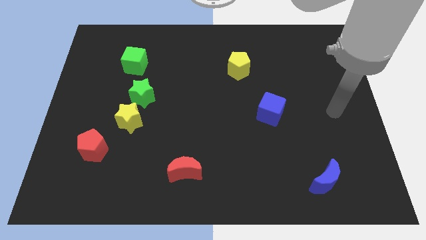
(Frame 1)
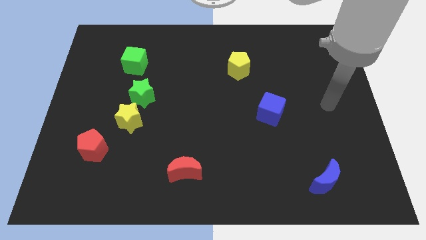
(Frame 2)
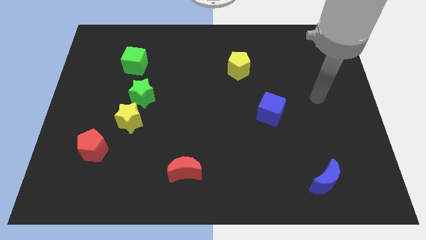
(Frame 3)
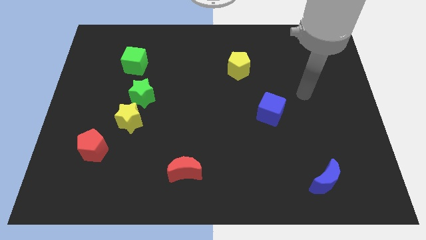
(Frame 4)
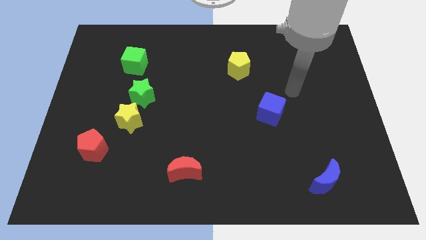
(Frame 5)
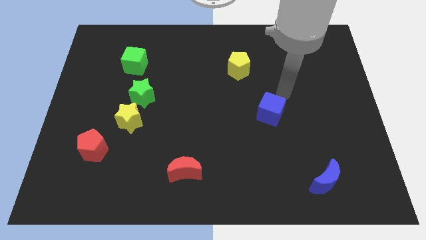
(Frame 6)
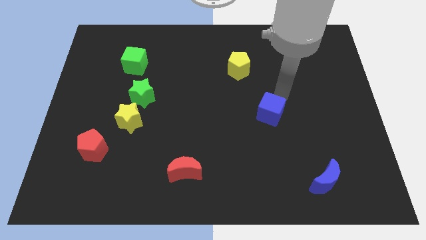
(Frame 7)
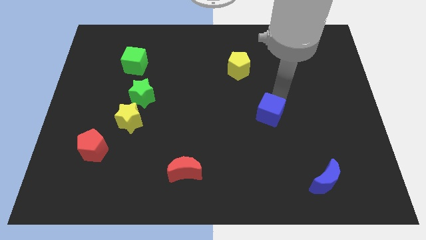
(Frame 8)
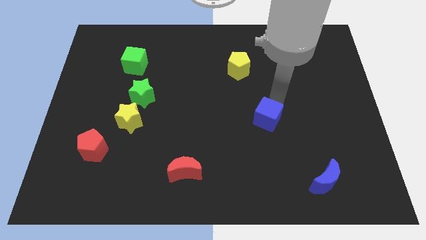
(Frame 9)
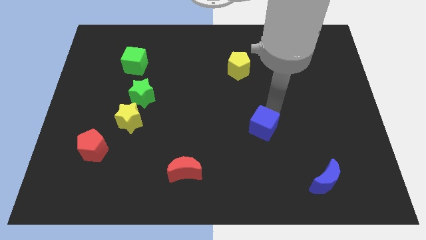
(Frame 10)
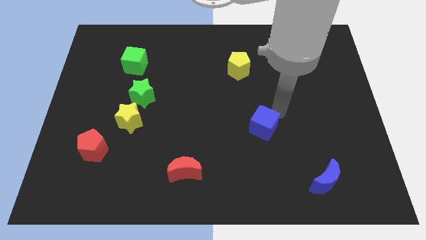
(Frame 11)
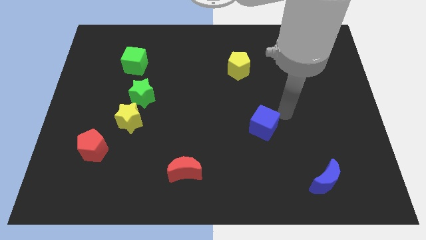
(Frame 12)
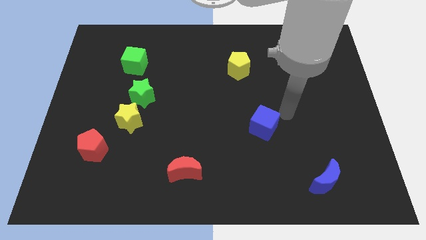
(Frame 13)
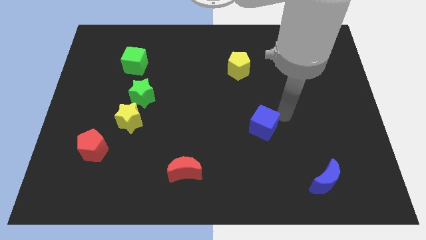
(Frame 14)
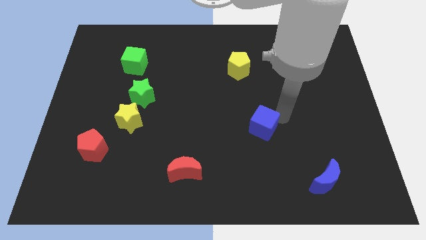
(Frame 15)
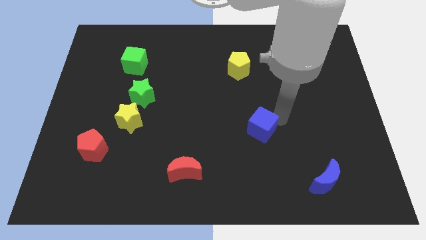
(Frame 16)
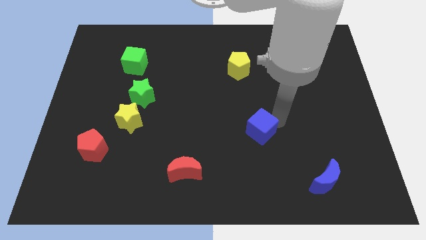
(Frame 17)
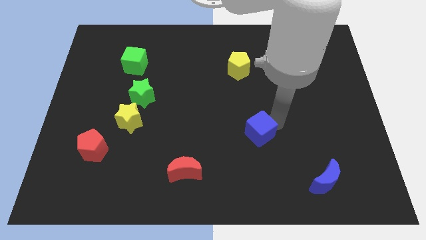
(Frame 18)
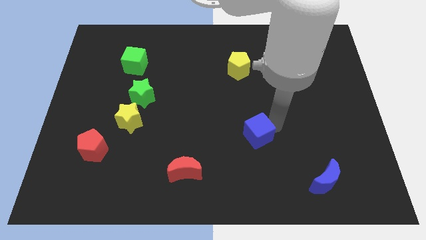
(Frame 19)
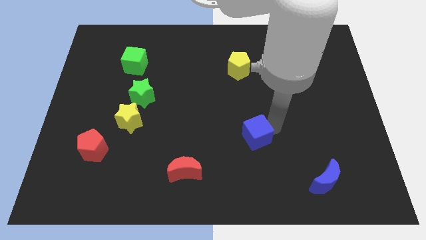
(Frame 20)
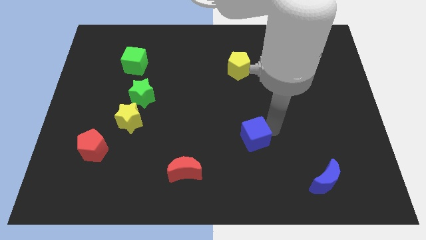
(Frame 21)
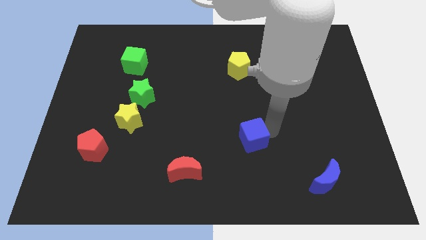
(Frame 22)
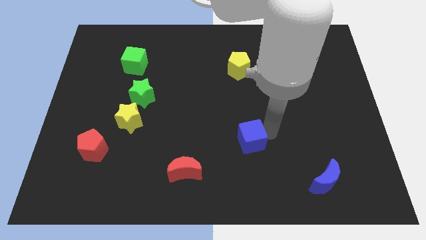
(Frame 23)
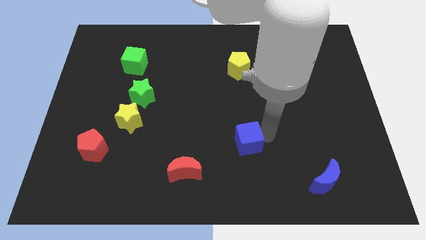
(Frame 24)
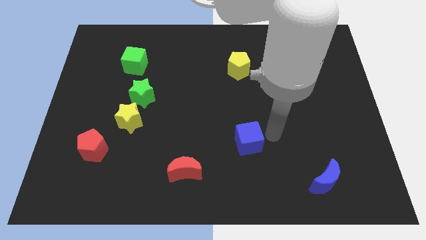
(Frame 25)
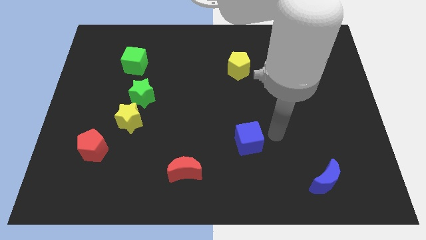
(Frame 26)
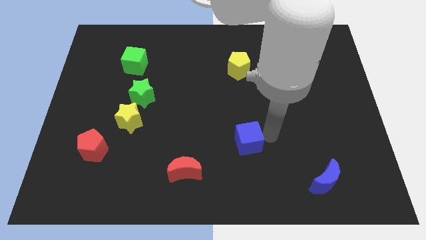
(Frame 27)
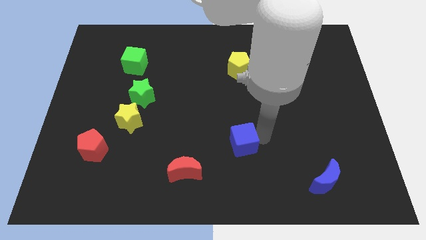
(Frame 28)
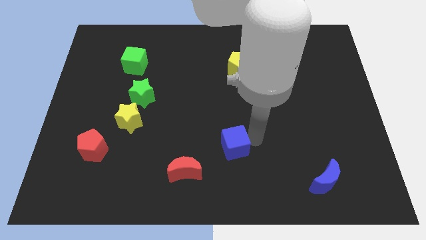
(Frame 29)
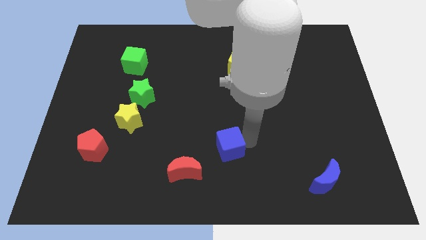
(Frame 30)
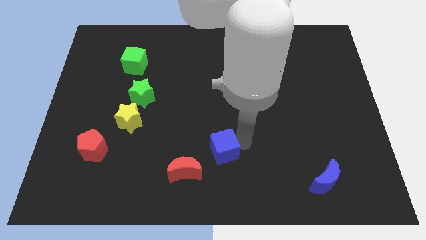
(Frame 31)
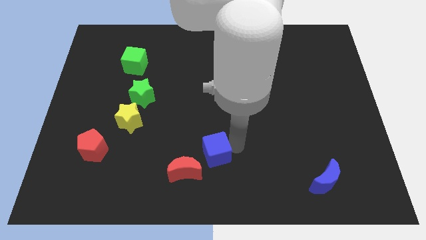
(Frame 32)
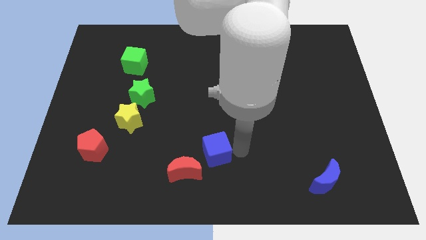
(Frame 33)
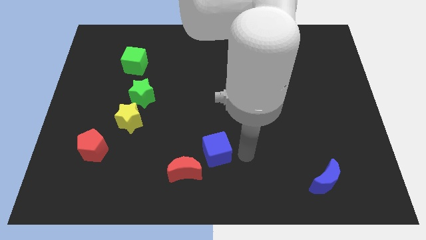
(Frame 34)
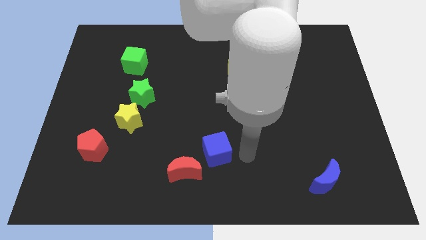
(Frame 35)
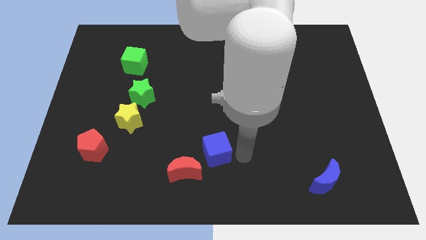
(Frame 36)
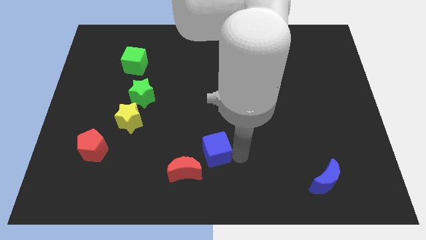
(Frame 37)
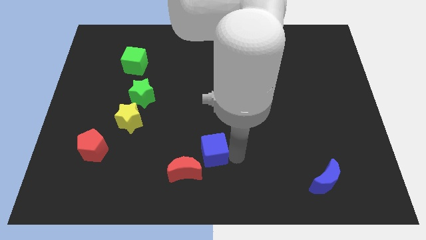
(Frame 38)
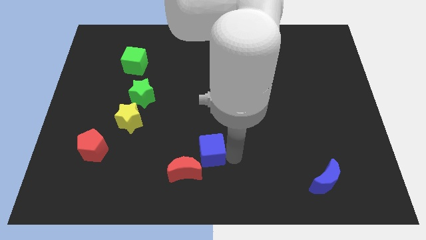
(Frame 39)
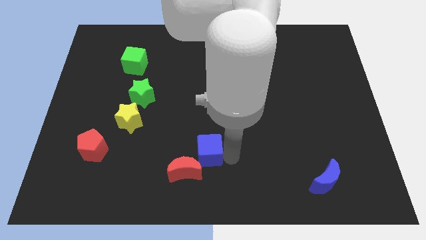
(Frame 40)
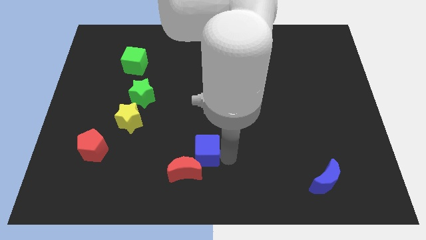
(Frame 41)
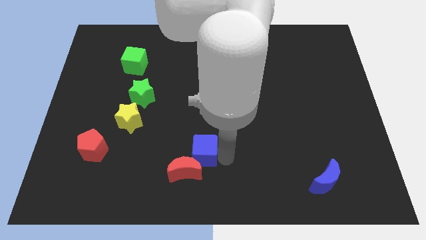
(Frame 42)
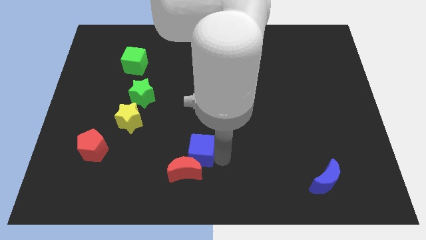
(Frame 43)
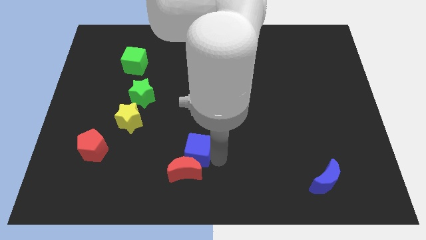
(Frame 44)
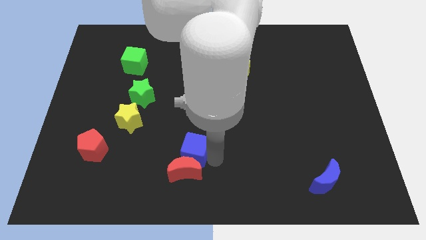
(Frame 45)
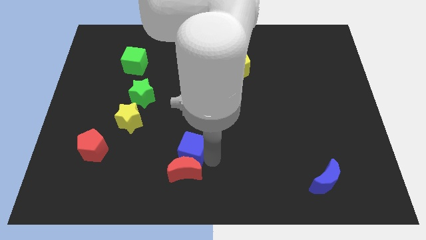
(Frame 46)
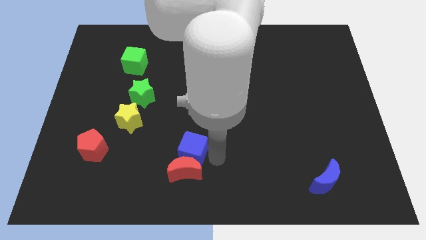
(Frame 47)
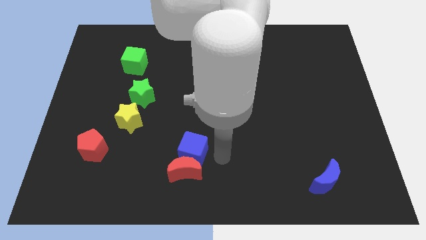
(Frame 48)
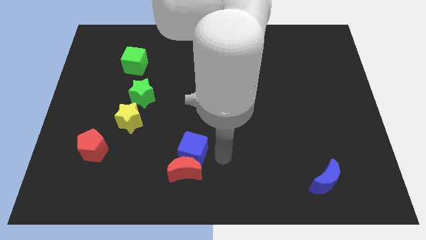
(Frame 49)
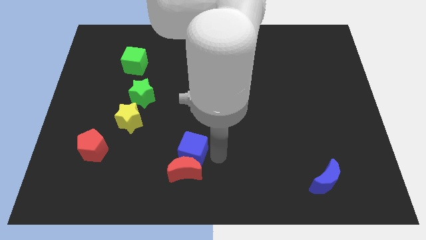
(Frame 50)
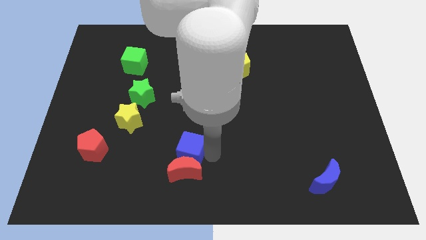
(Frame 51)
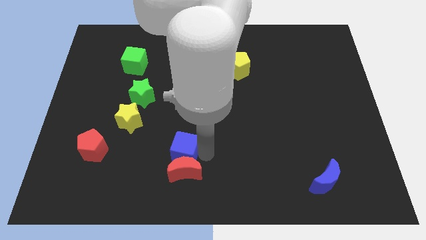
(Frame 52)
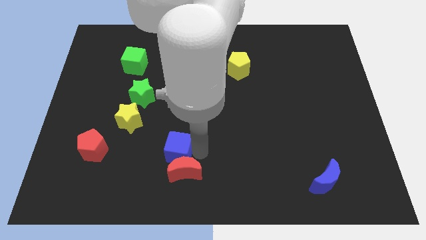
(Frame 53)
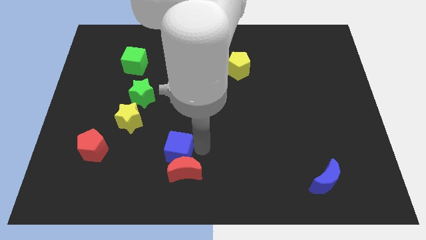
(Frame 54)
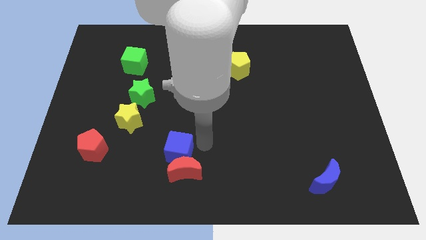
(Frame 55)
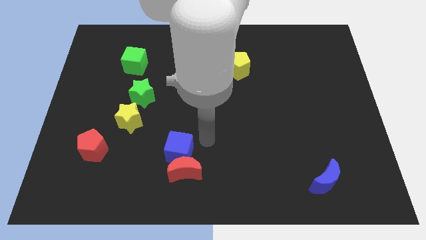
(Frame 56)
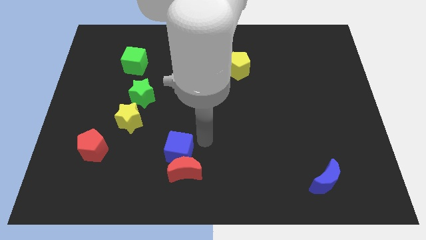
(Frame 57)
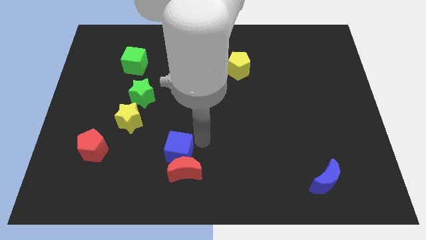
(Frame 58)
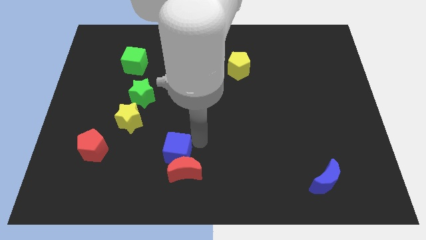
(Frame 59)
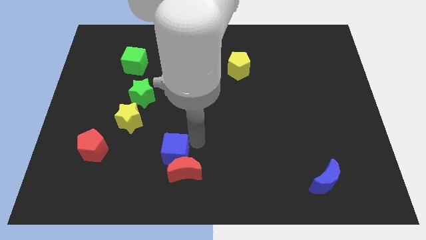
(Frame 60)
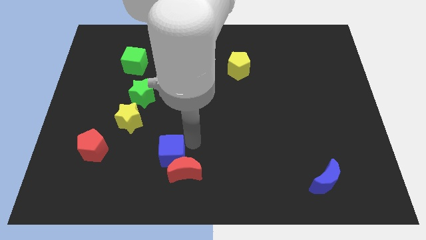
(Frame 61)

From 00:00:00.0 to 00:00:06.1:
slide the blue cube left of the red moon

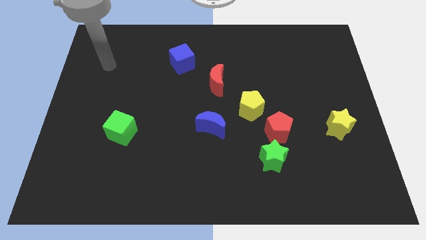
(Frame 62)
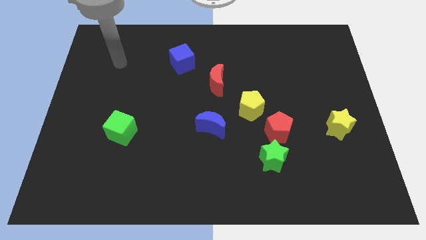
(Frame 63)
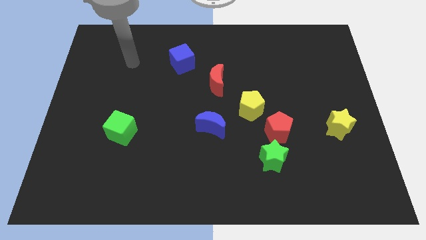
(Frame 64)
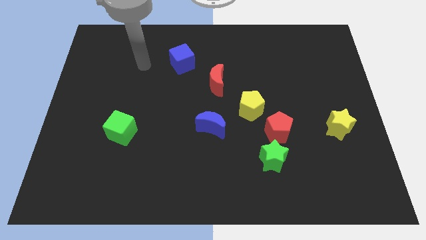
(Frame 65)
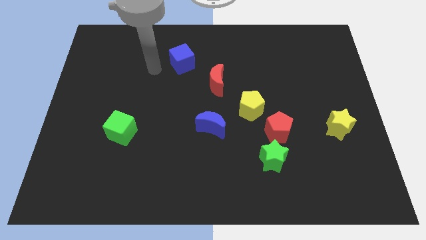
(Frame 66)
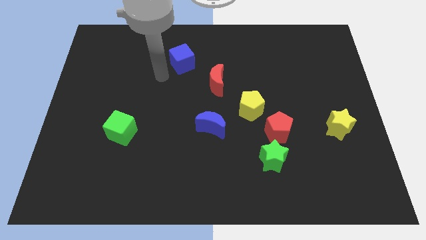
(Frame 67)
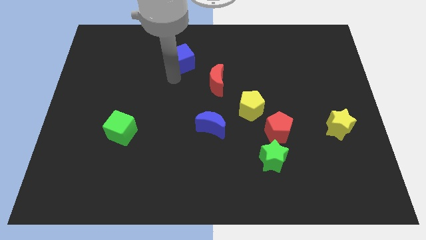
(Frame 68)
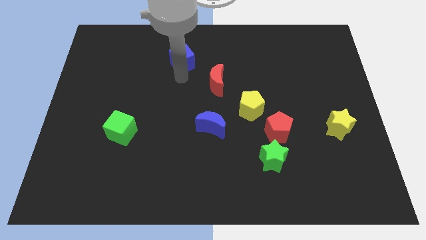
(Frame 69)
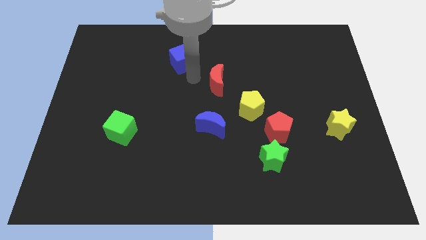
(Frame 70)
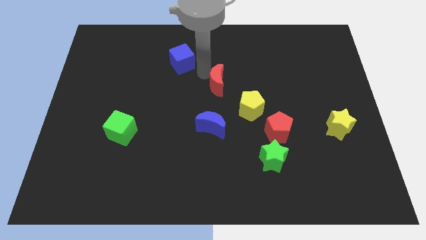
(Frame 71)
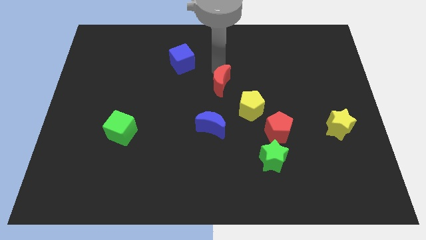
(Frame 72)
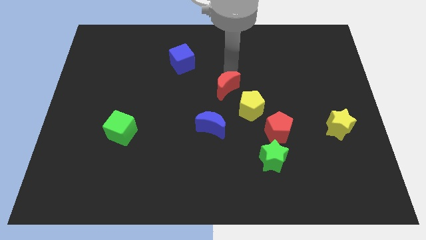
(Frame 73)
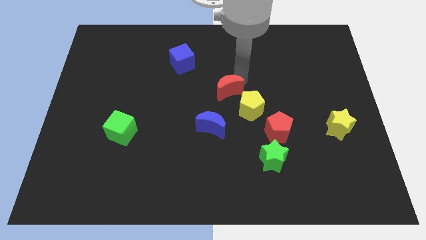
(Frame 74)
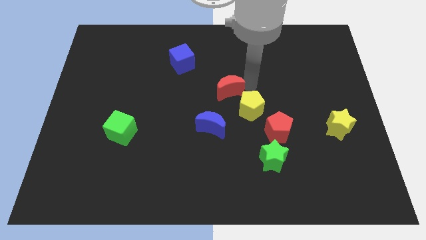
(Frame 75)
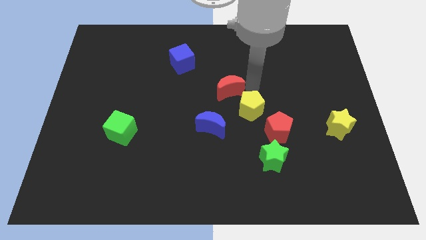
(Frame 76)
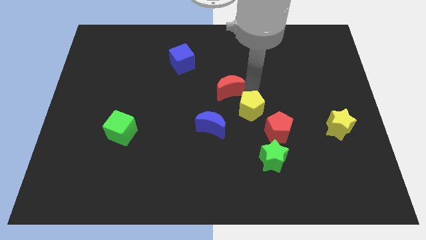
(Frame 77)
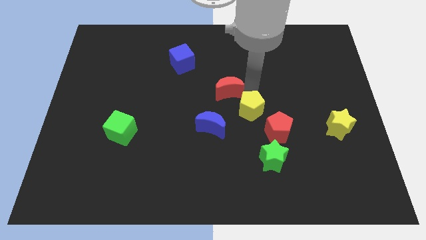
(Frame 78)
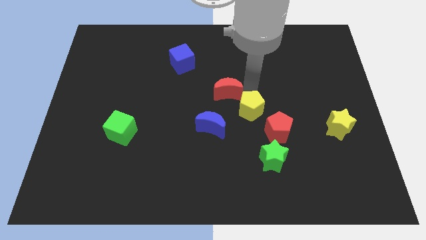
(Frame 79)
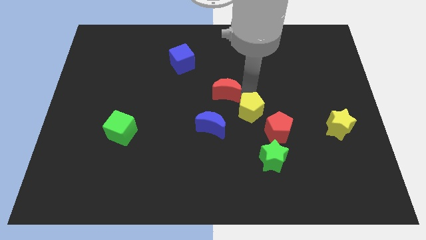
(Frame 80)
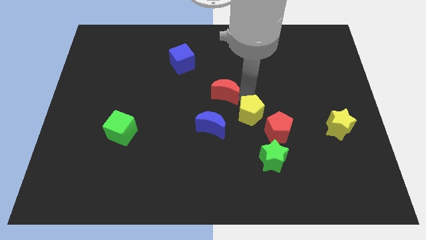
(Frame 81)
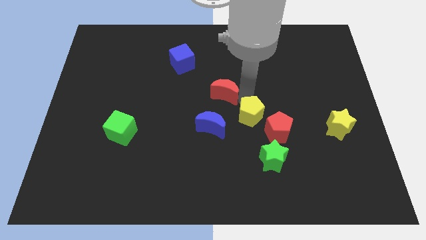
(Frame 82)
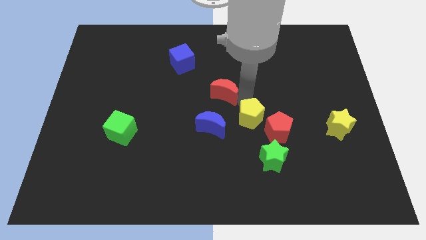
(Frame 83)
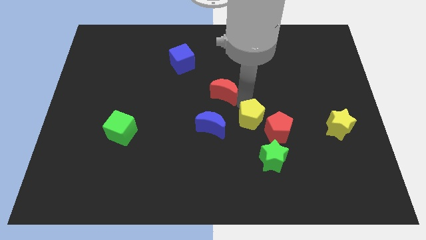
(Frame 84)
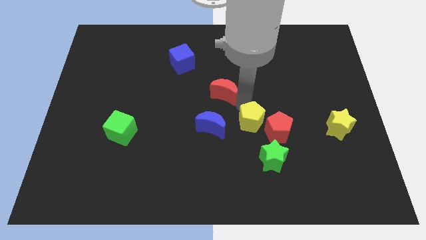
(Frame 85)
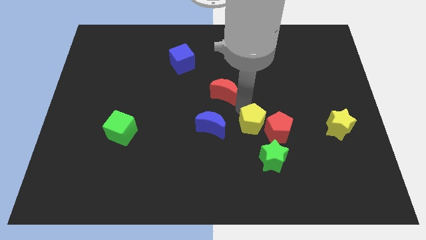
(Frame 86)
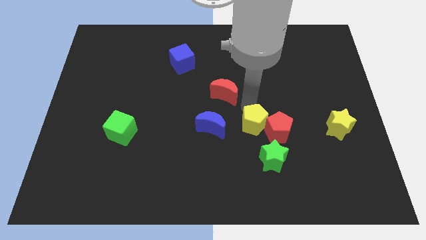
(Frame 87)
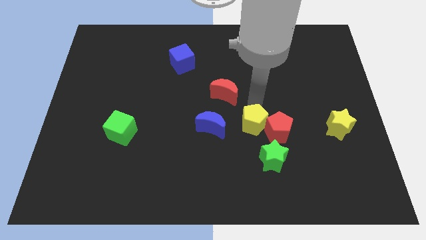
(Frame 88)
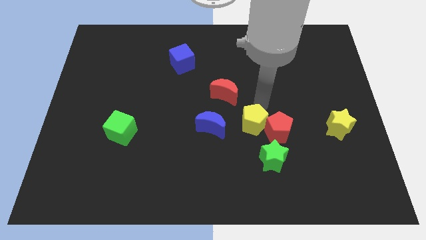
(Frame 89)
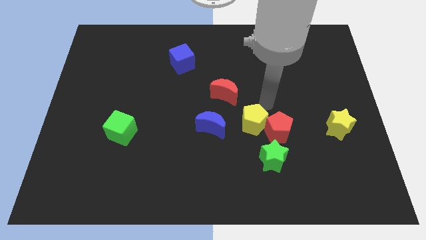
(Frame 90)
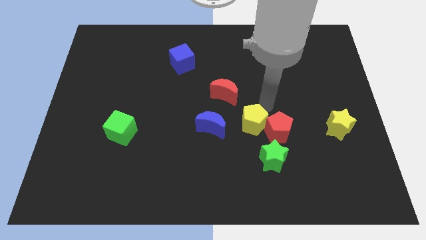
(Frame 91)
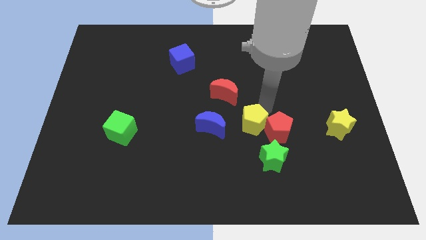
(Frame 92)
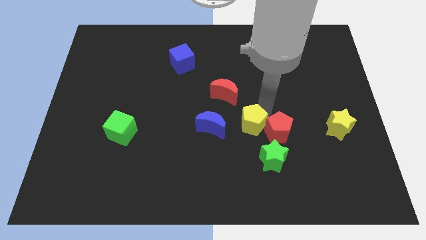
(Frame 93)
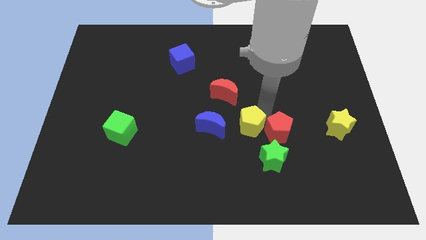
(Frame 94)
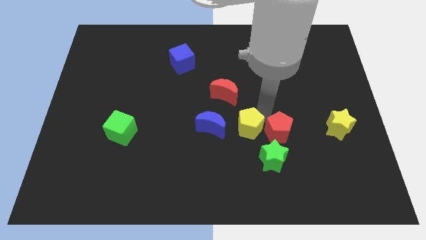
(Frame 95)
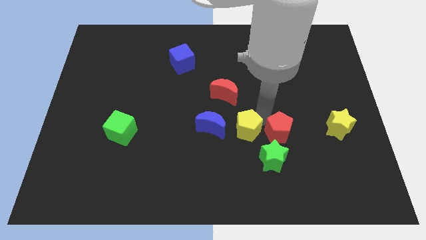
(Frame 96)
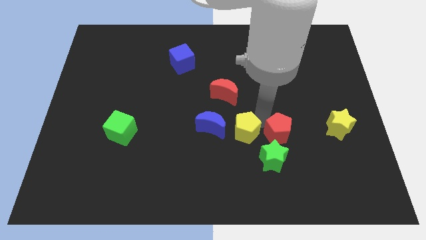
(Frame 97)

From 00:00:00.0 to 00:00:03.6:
move the yellow pentagon to the bottom right of the blue moon
